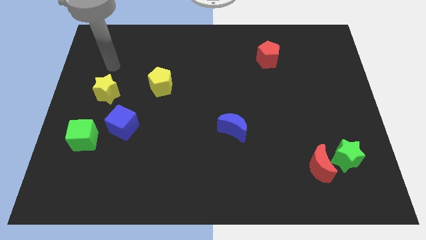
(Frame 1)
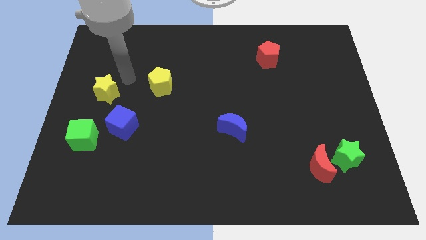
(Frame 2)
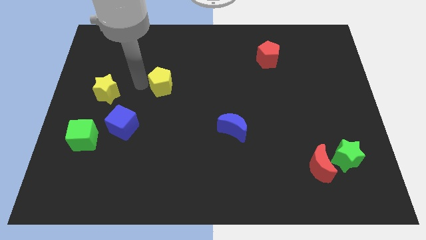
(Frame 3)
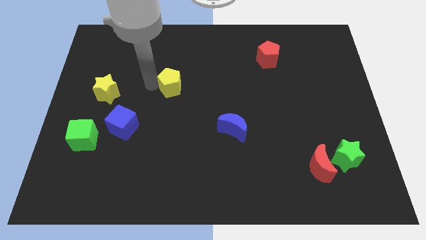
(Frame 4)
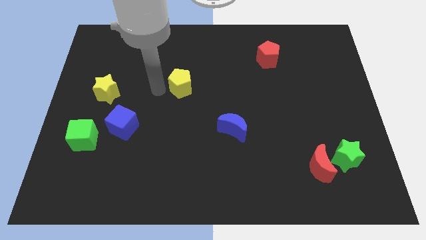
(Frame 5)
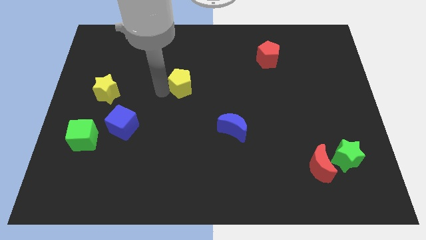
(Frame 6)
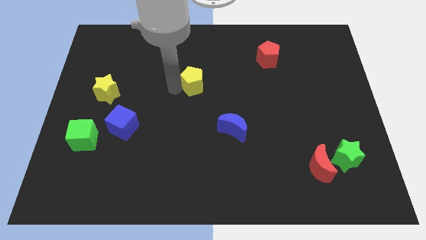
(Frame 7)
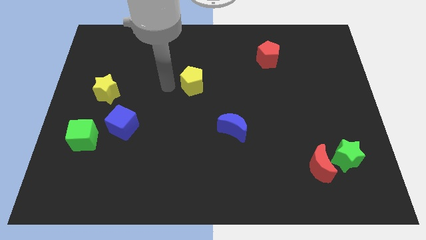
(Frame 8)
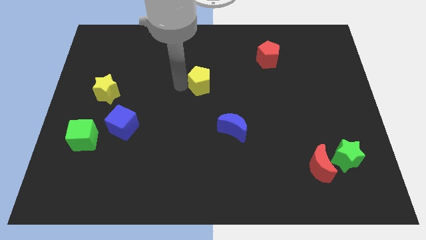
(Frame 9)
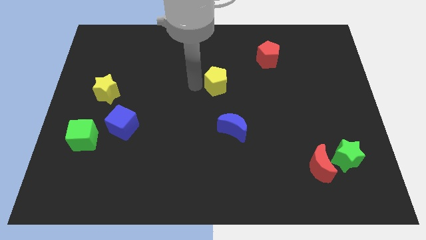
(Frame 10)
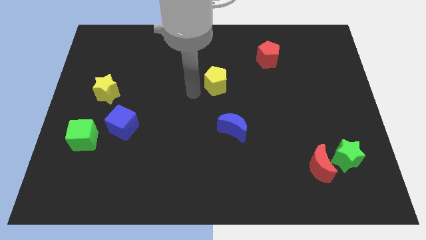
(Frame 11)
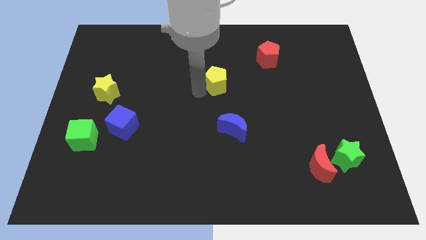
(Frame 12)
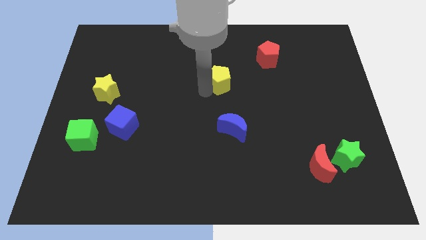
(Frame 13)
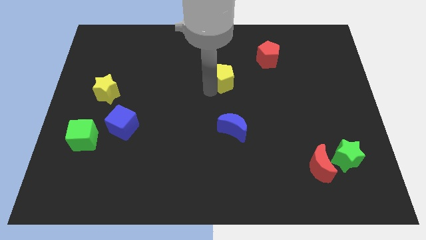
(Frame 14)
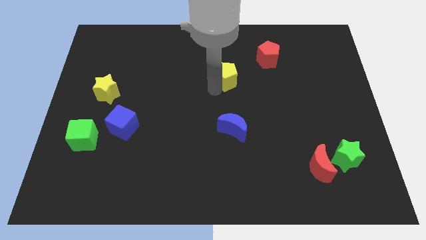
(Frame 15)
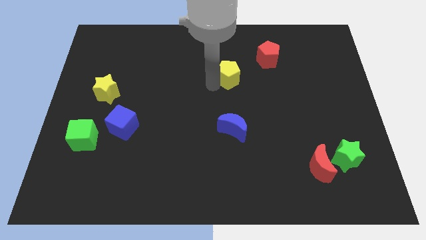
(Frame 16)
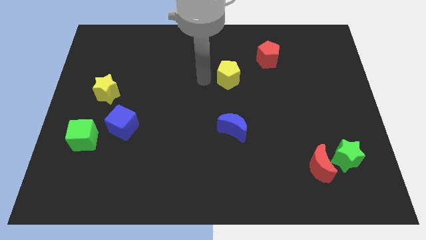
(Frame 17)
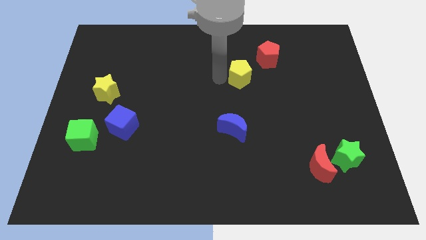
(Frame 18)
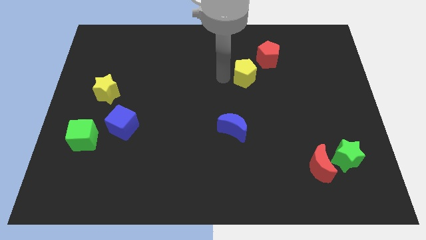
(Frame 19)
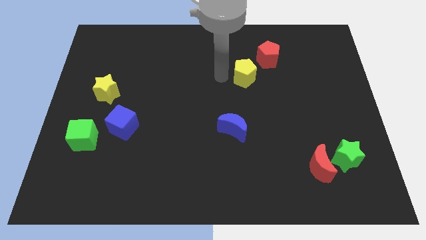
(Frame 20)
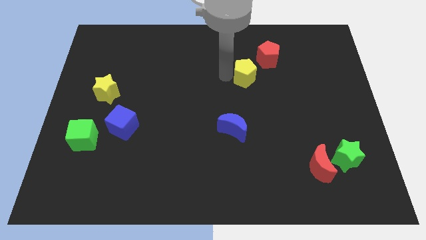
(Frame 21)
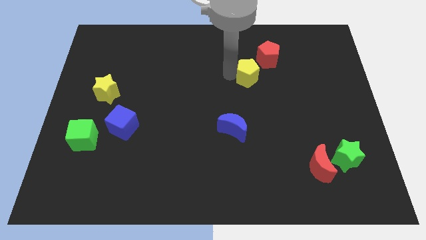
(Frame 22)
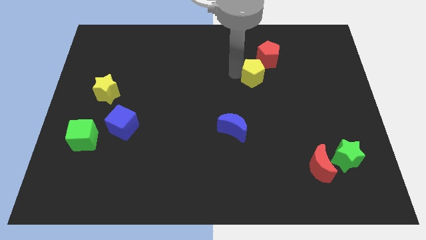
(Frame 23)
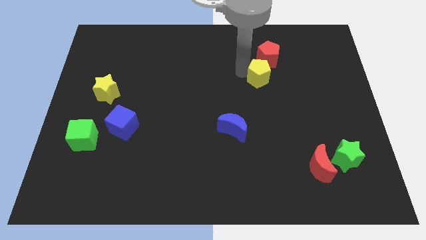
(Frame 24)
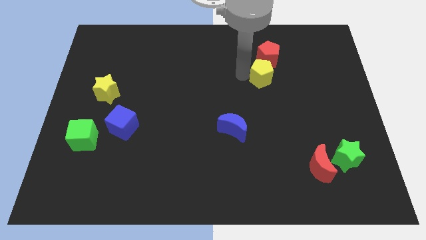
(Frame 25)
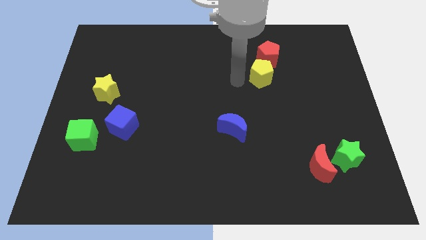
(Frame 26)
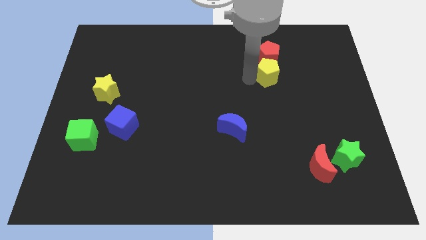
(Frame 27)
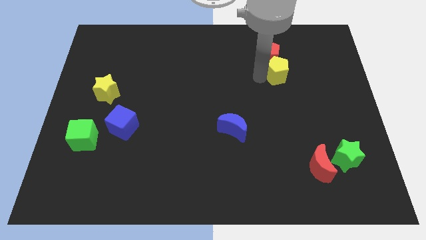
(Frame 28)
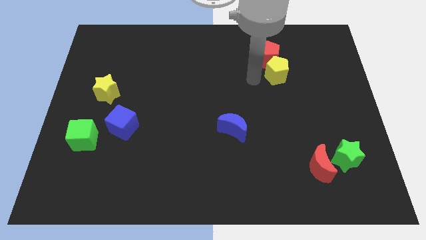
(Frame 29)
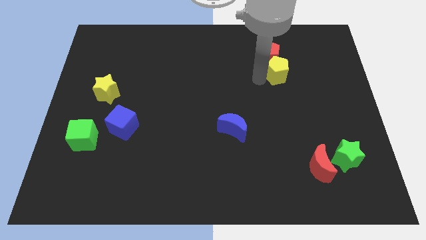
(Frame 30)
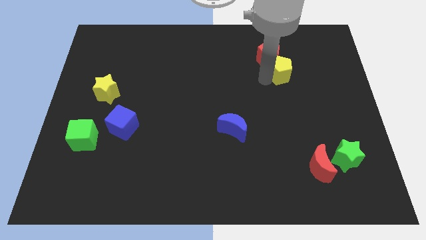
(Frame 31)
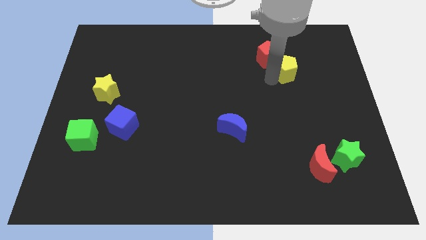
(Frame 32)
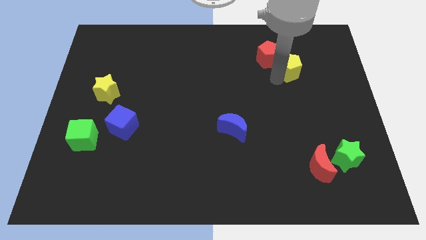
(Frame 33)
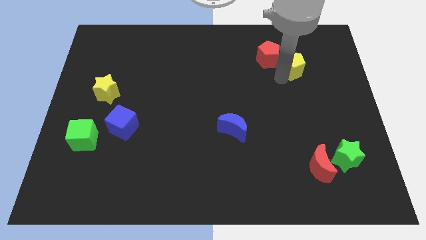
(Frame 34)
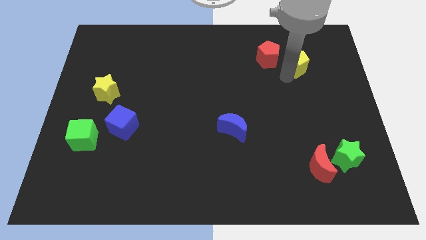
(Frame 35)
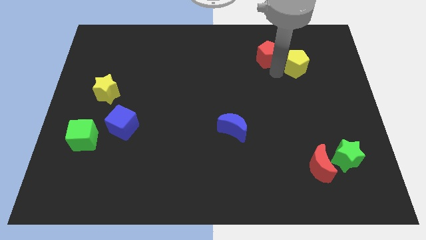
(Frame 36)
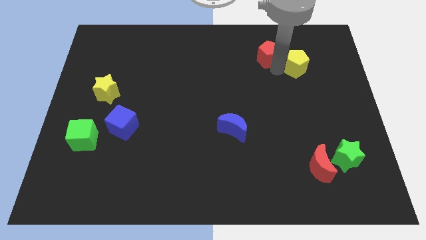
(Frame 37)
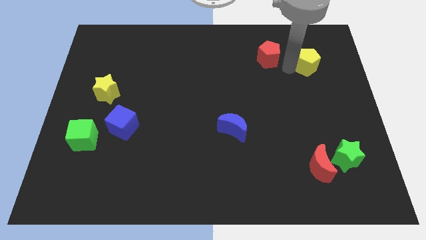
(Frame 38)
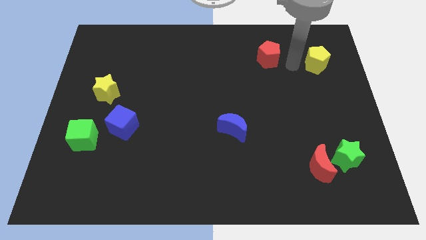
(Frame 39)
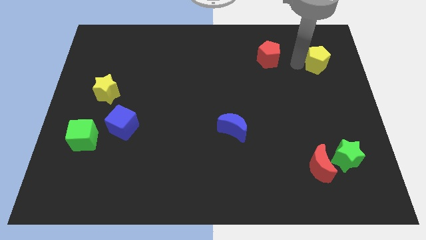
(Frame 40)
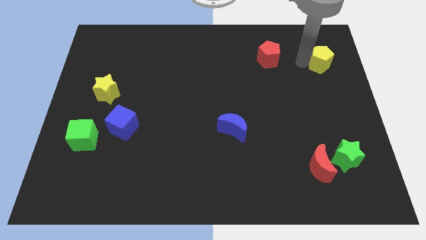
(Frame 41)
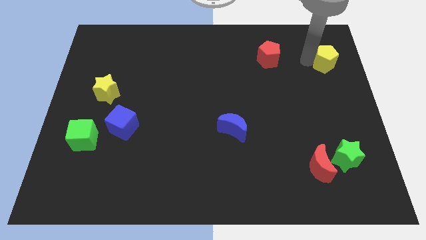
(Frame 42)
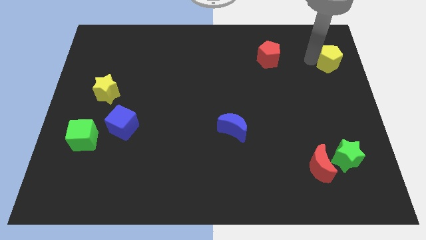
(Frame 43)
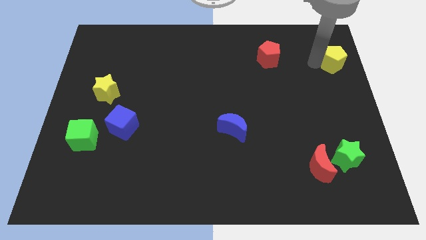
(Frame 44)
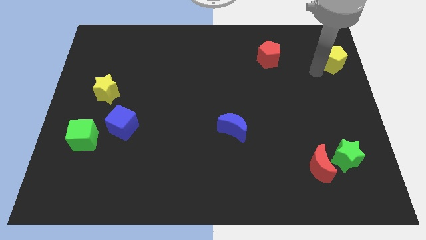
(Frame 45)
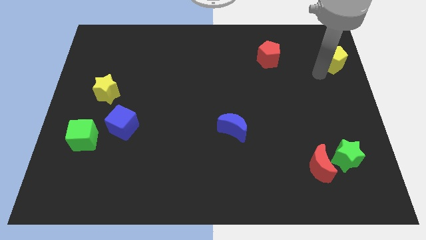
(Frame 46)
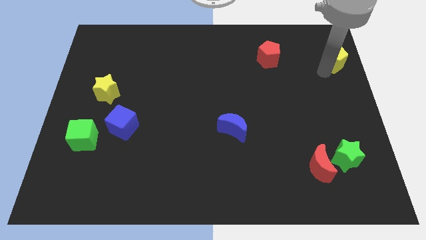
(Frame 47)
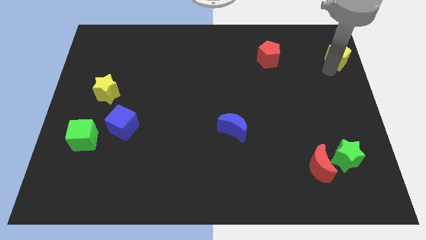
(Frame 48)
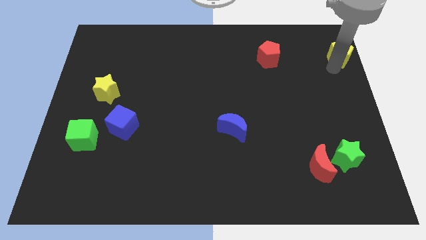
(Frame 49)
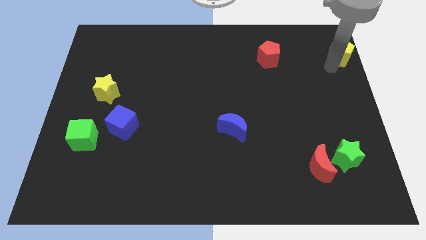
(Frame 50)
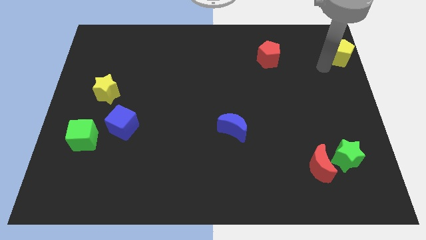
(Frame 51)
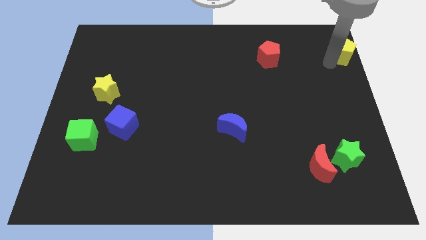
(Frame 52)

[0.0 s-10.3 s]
push the yellow pentagon to the upper right corner

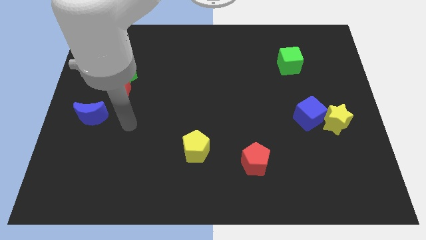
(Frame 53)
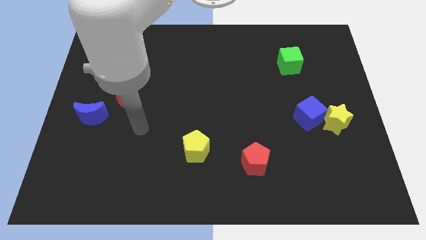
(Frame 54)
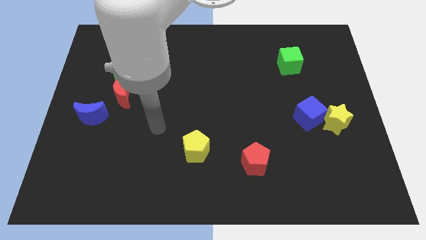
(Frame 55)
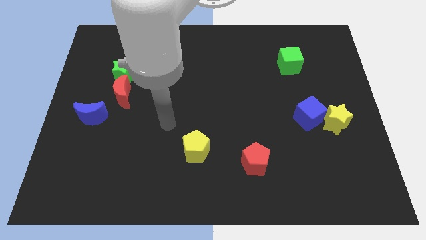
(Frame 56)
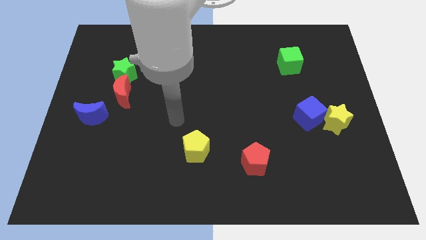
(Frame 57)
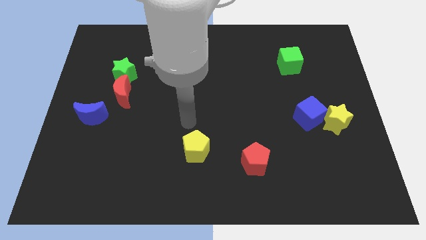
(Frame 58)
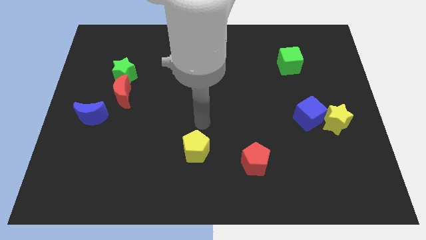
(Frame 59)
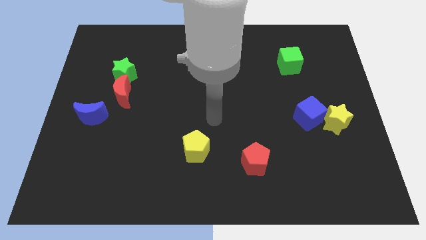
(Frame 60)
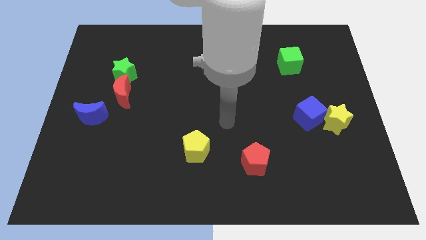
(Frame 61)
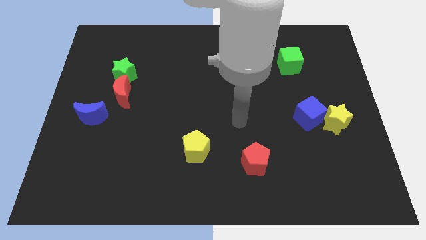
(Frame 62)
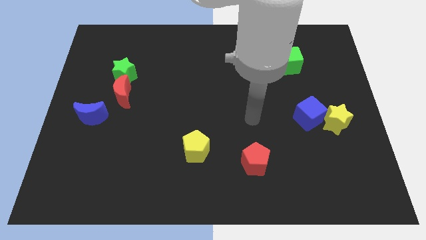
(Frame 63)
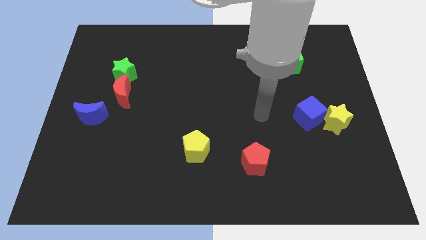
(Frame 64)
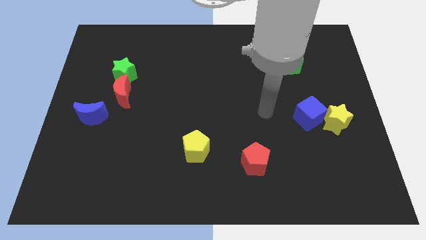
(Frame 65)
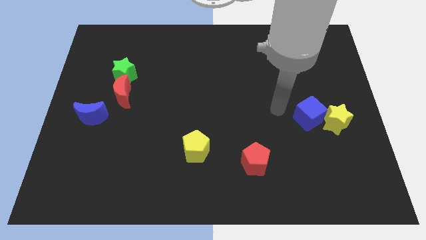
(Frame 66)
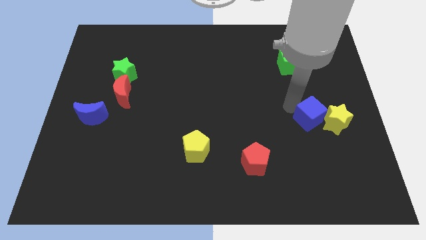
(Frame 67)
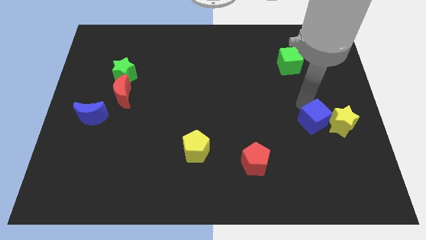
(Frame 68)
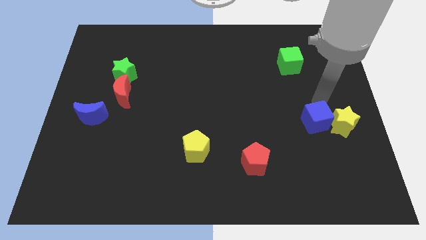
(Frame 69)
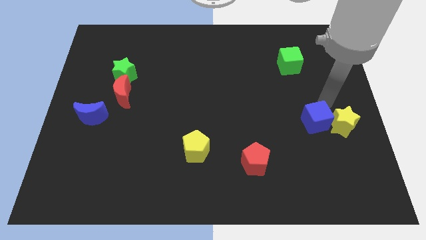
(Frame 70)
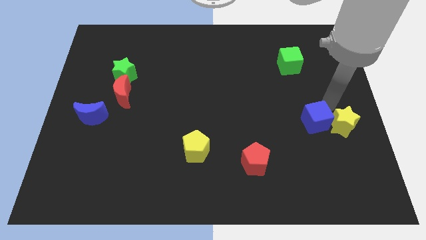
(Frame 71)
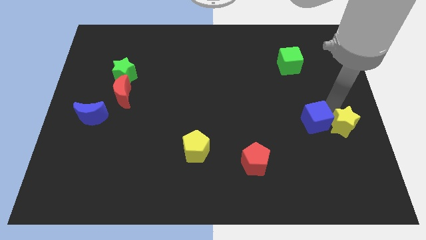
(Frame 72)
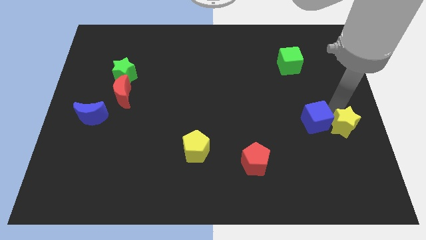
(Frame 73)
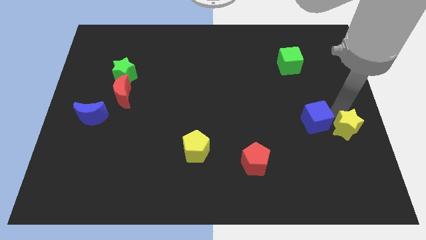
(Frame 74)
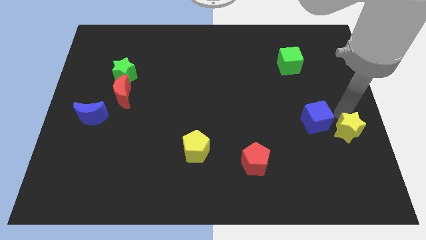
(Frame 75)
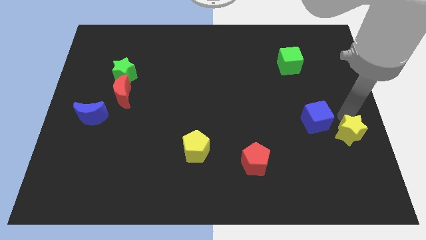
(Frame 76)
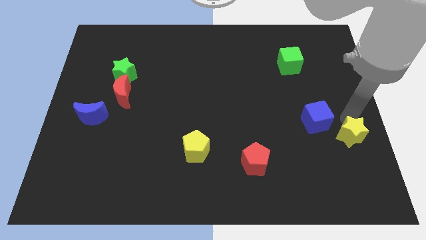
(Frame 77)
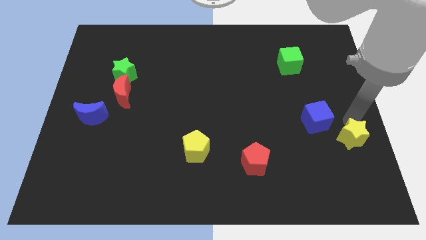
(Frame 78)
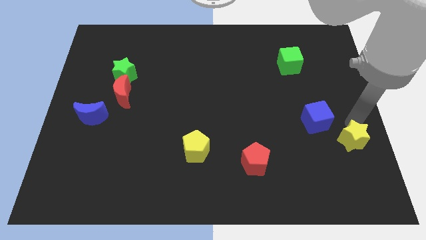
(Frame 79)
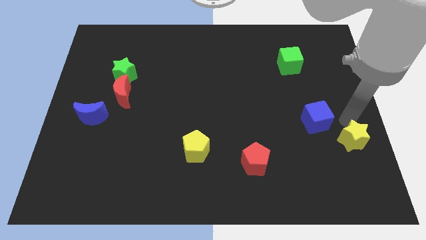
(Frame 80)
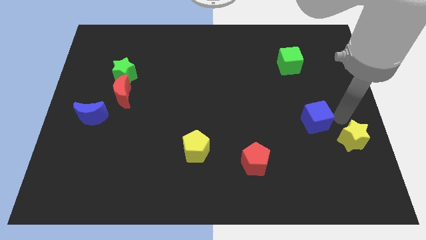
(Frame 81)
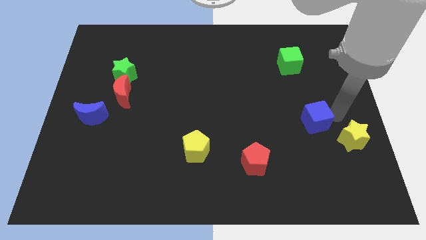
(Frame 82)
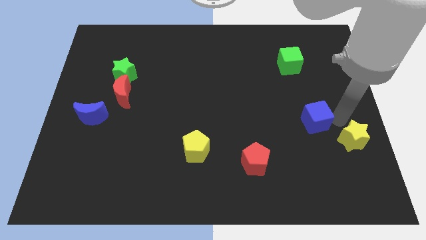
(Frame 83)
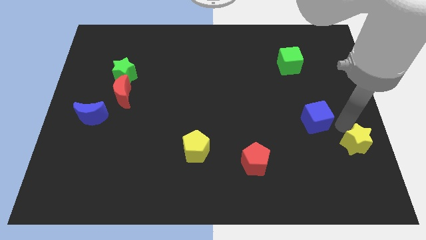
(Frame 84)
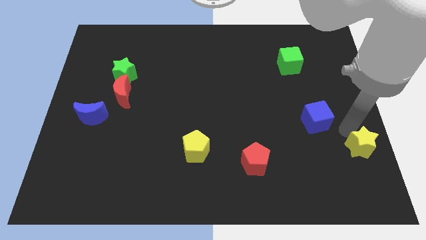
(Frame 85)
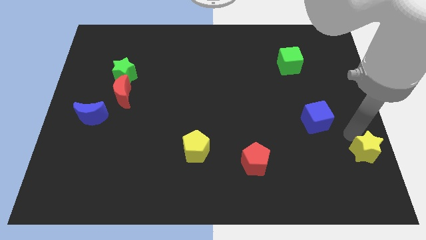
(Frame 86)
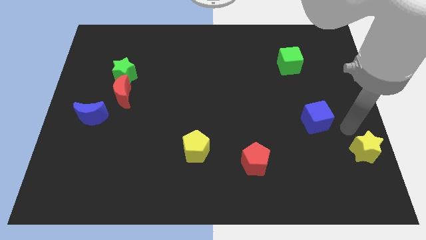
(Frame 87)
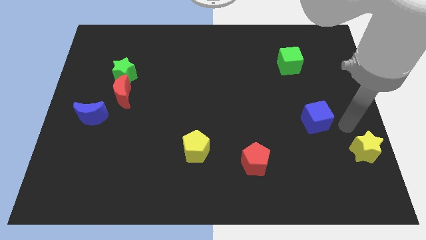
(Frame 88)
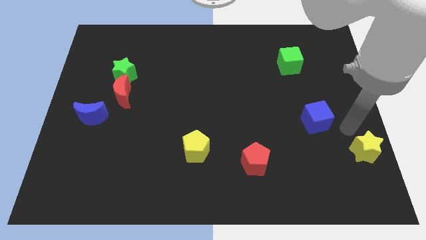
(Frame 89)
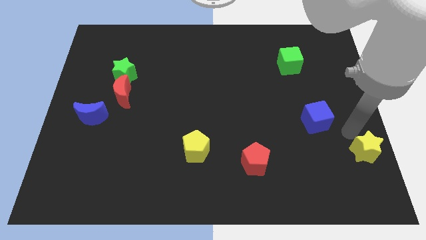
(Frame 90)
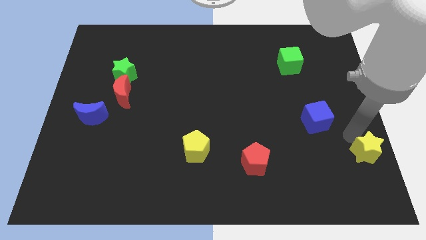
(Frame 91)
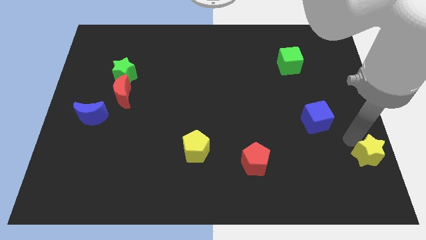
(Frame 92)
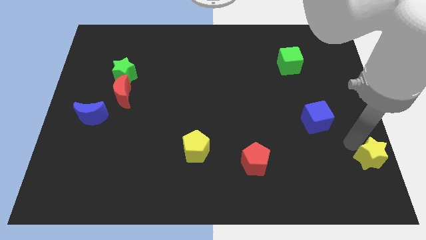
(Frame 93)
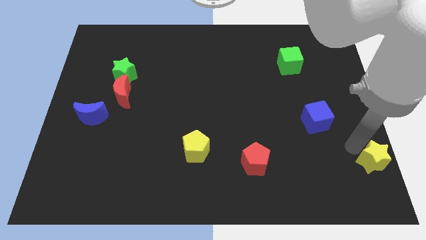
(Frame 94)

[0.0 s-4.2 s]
slide the yellow star to the bottom right of the board
